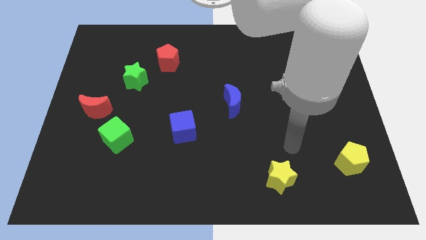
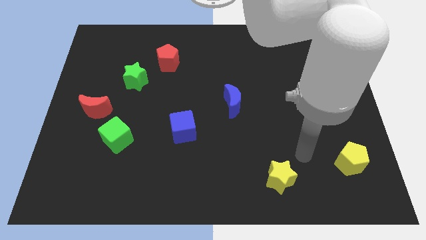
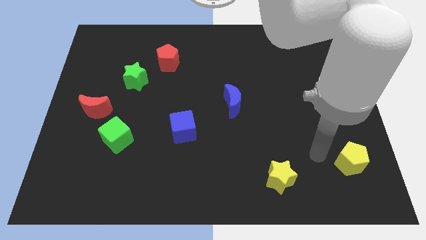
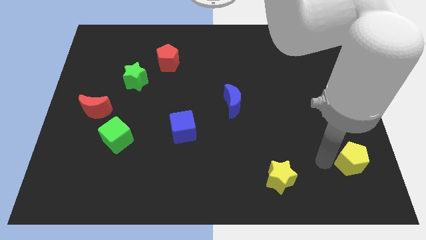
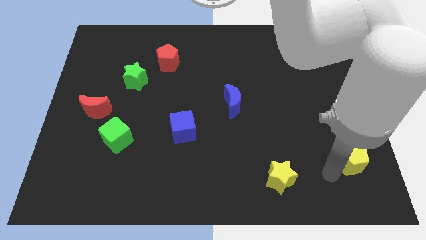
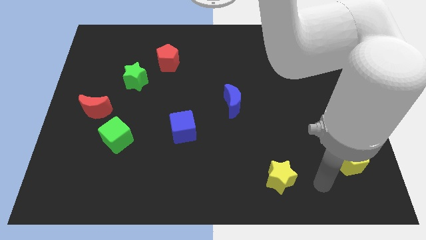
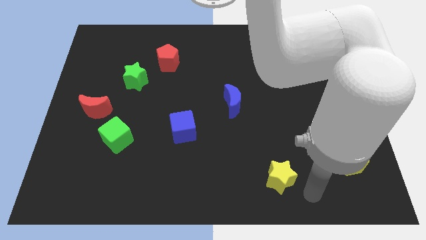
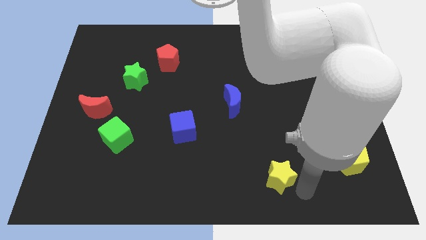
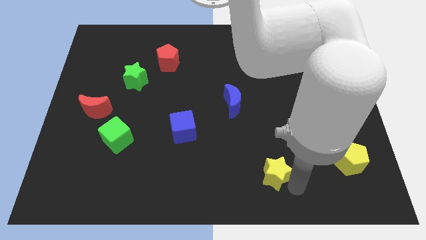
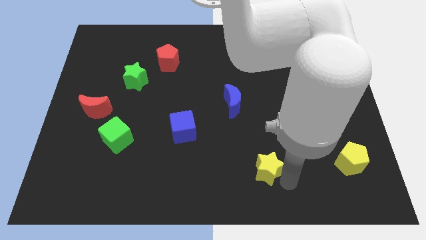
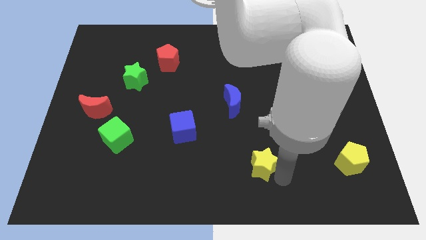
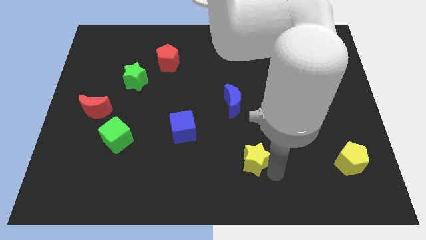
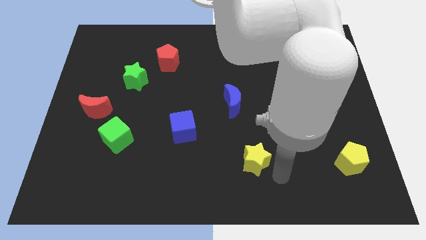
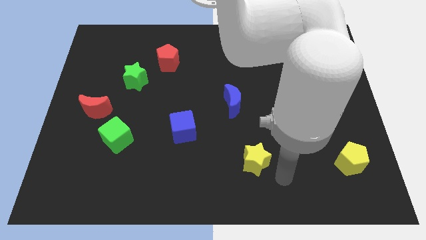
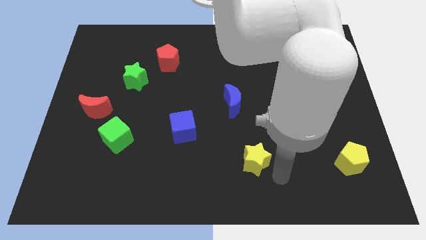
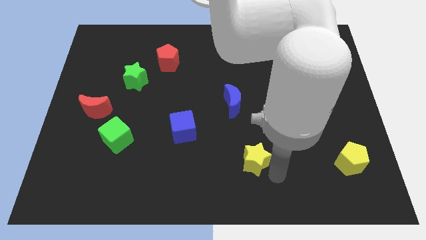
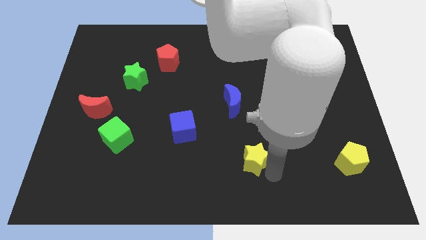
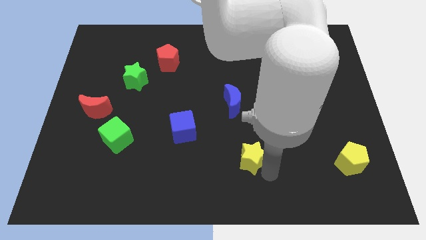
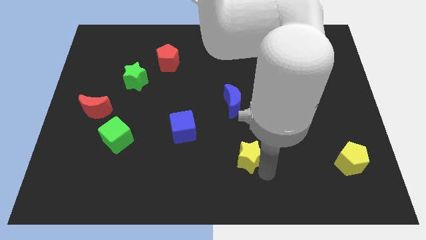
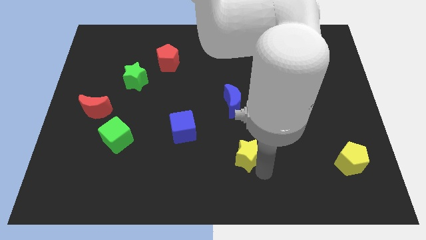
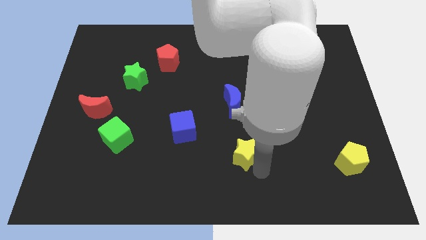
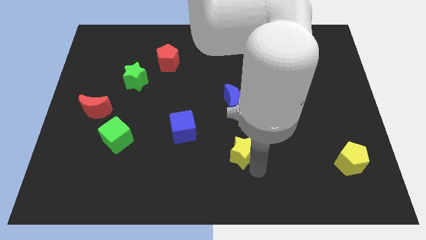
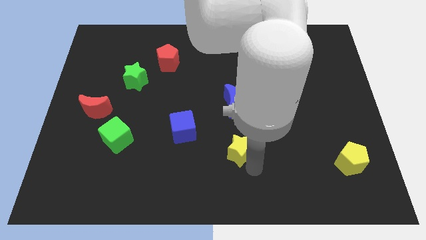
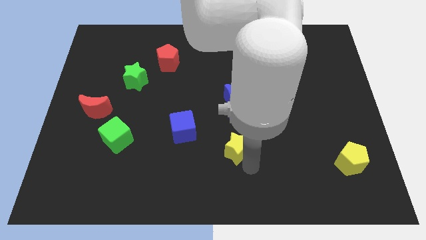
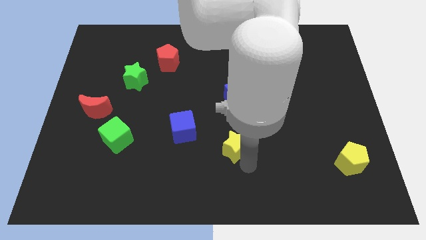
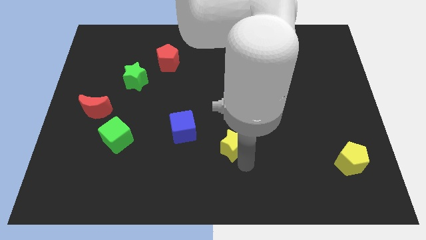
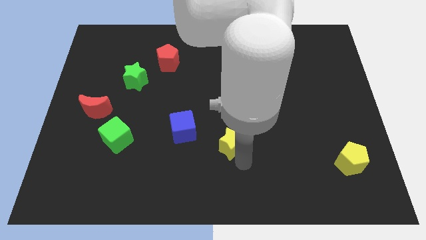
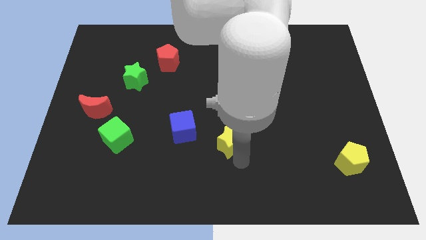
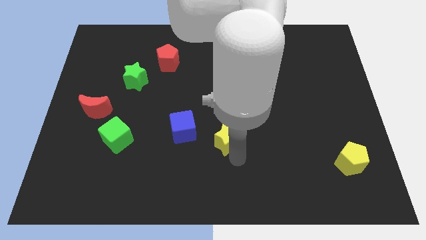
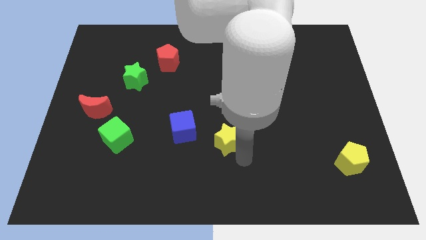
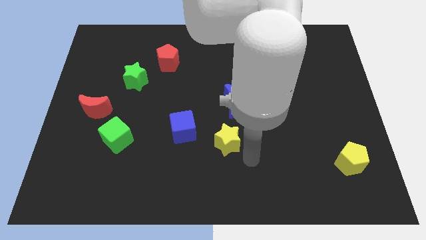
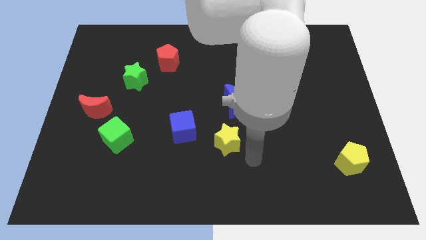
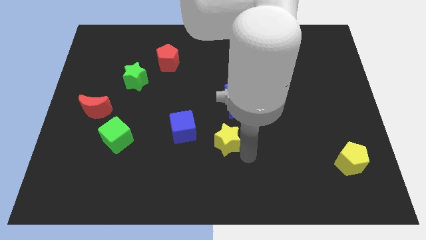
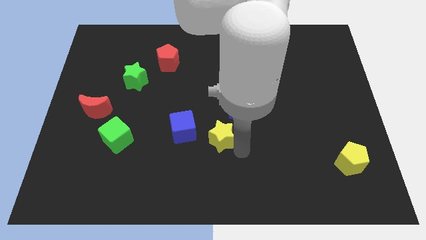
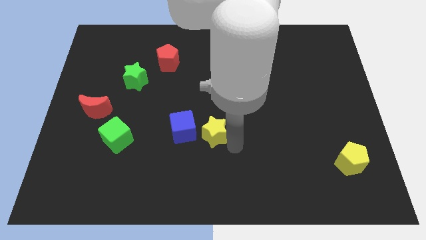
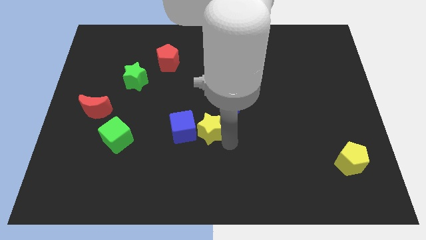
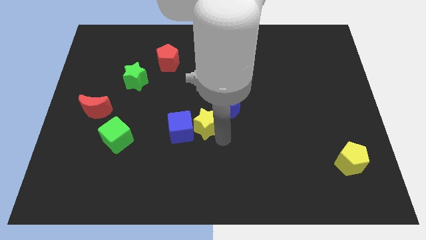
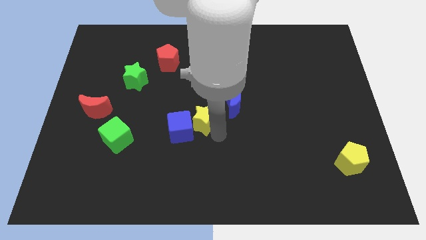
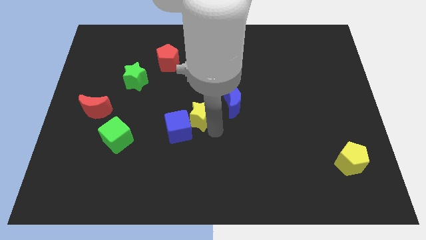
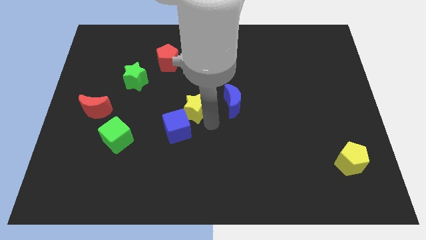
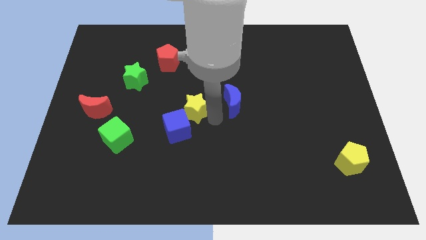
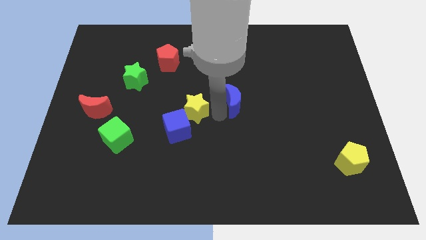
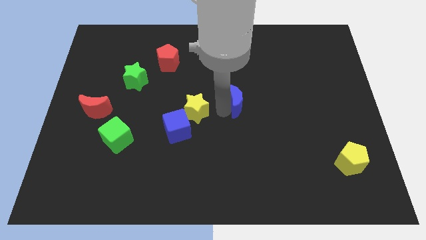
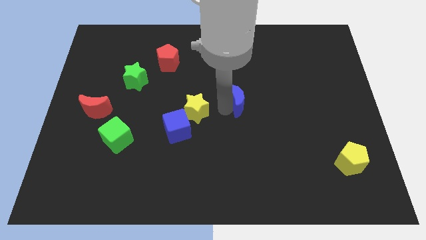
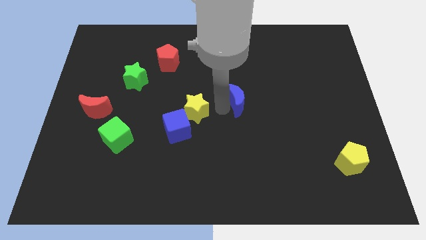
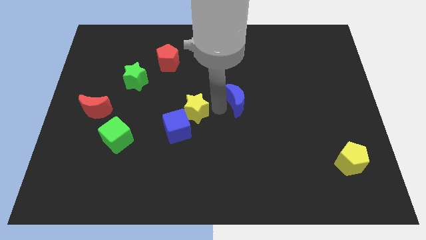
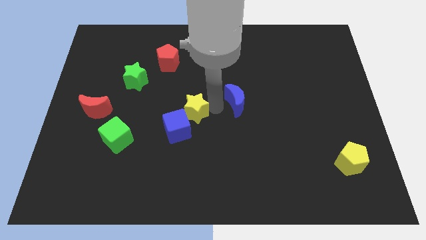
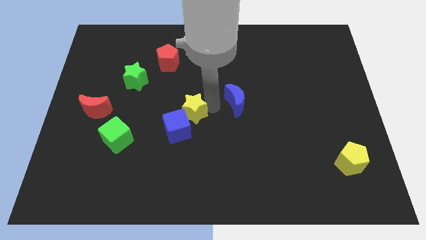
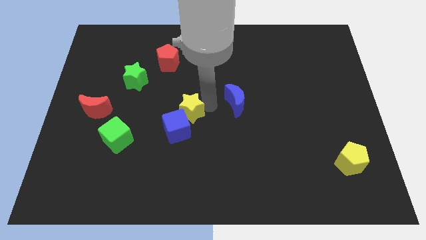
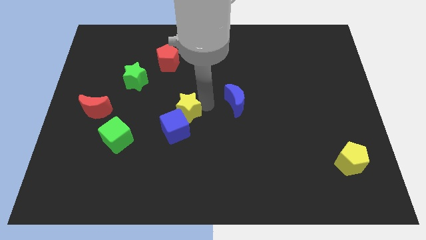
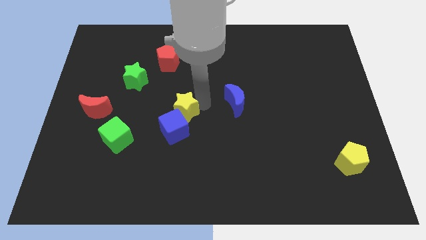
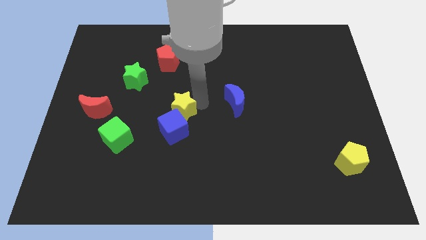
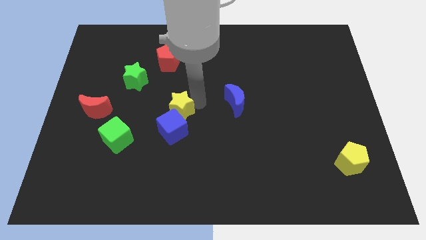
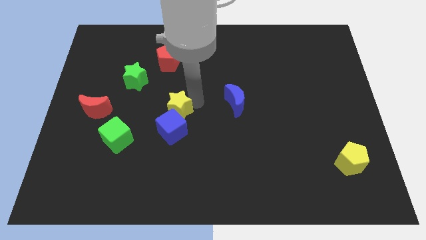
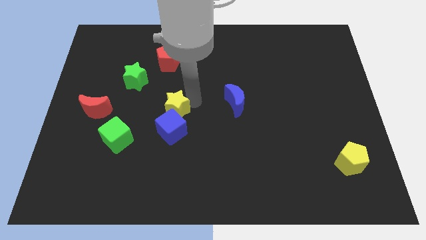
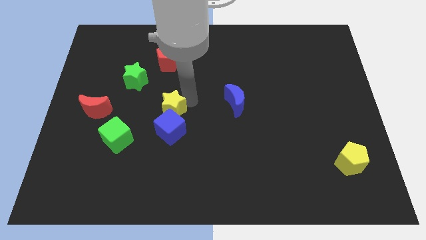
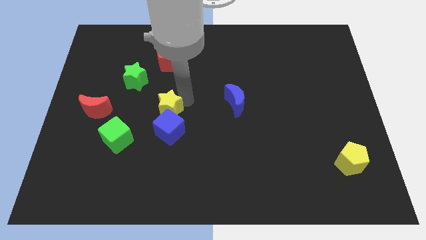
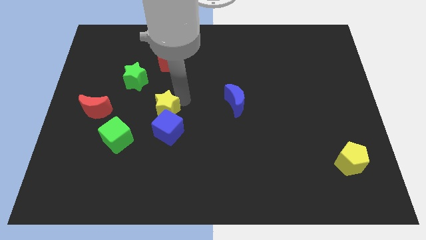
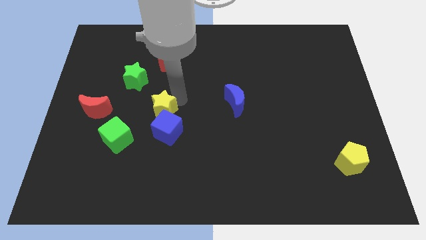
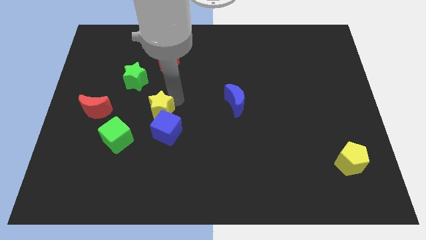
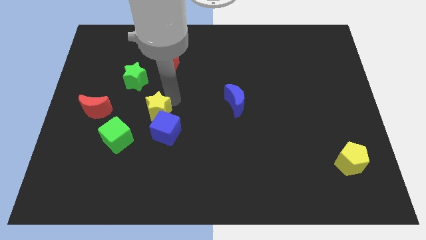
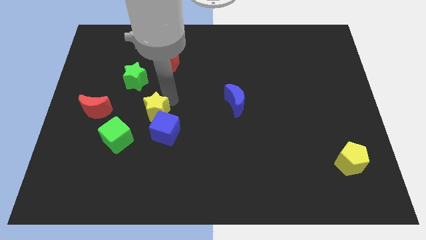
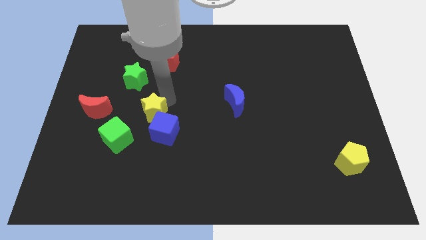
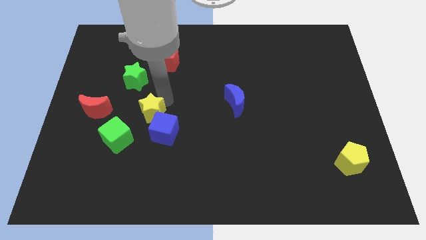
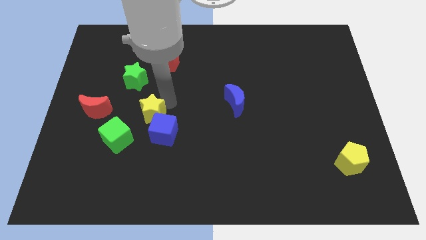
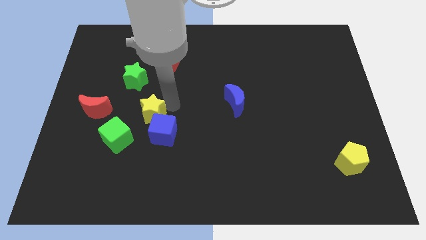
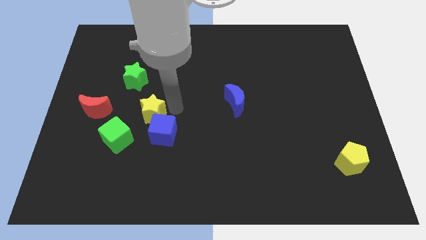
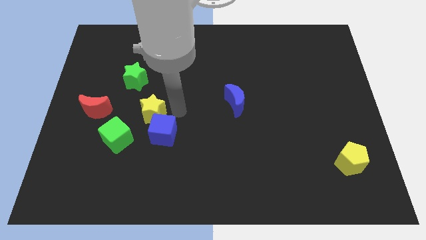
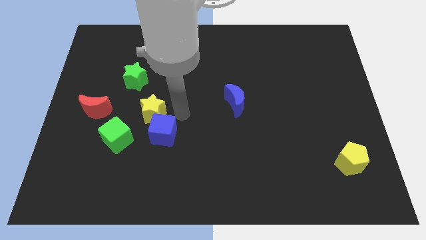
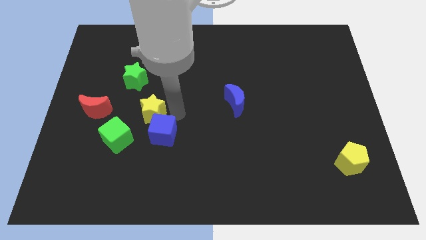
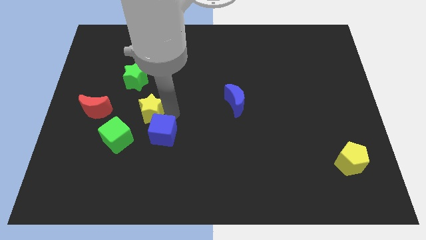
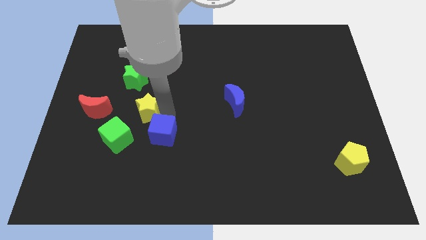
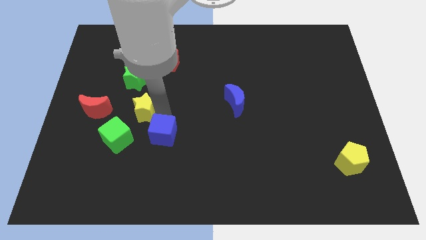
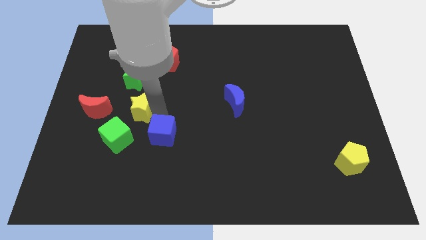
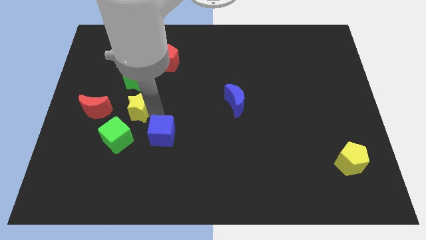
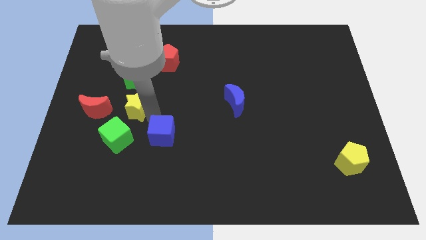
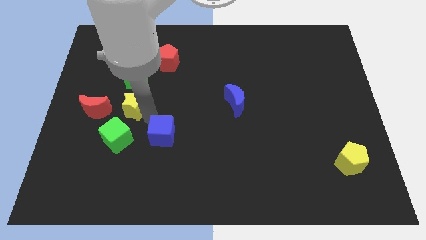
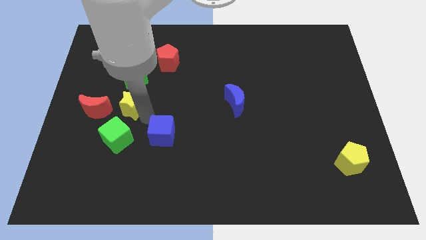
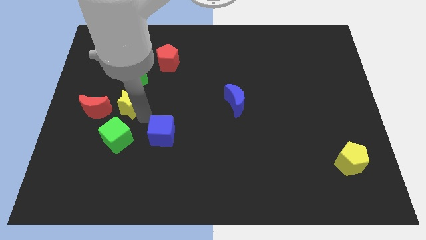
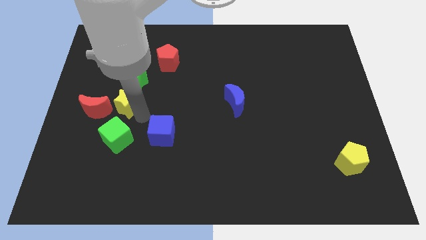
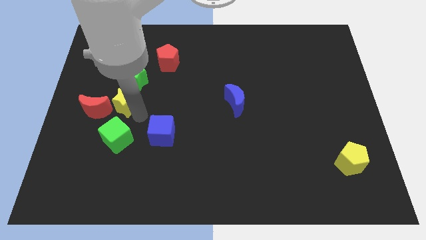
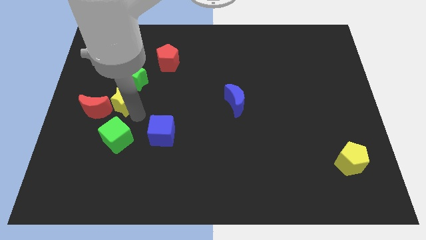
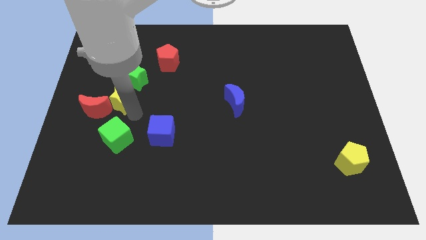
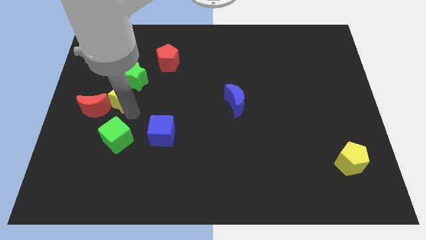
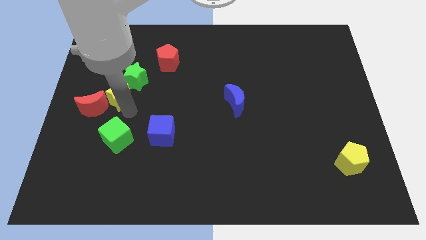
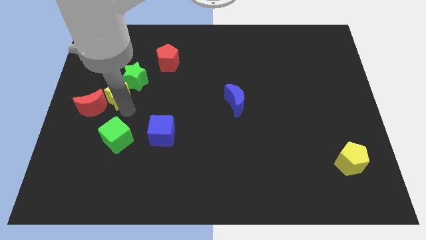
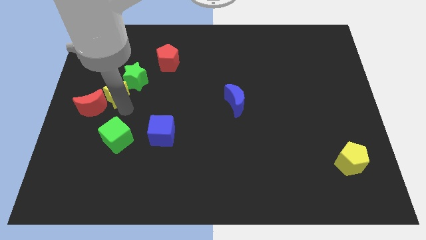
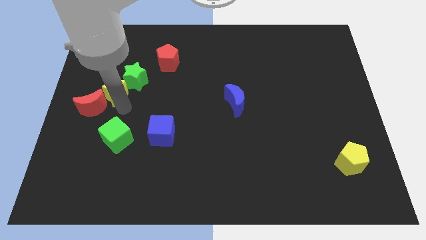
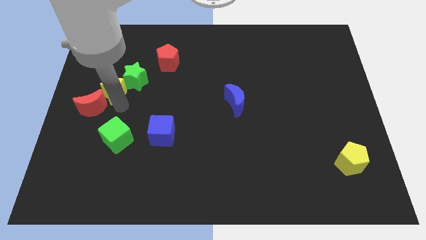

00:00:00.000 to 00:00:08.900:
push the yellow star to the top side of the red moon

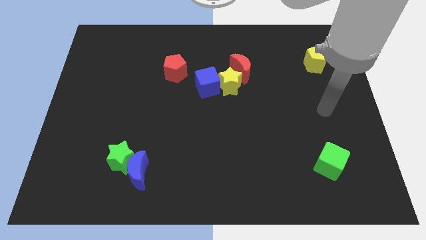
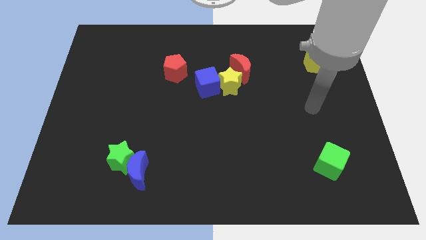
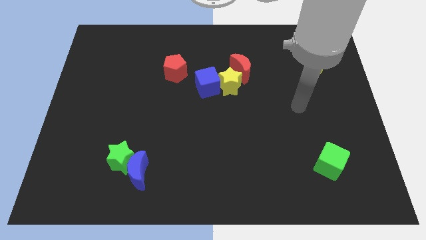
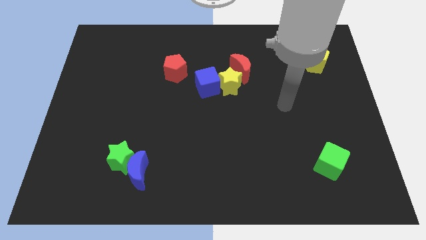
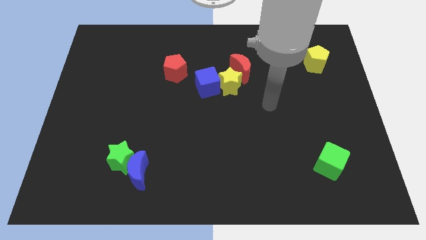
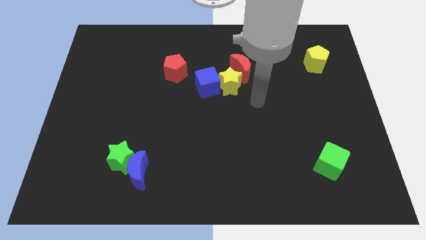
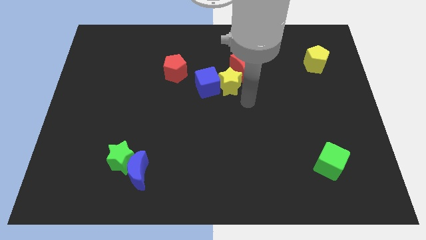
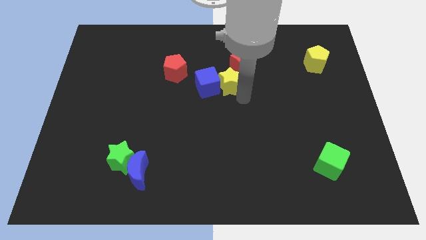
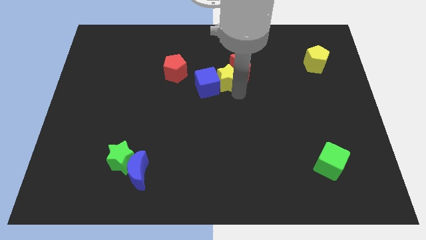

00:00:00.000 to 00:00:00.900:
put the yellow star to the right side of the red pentagon
